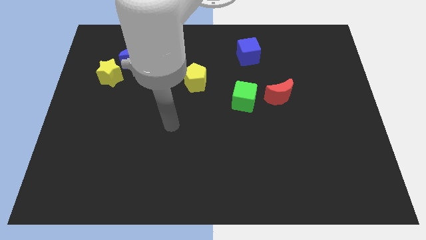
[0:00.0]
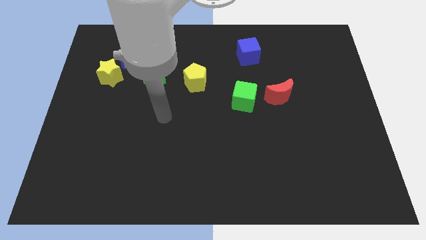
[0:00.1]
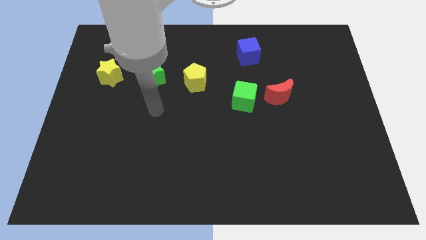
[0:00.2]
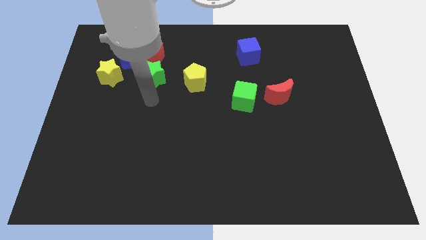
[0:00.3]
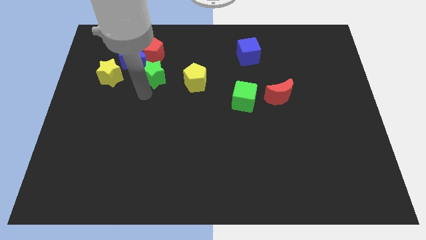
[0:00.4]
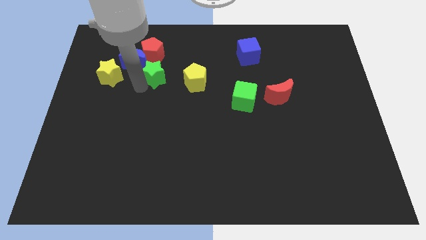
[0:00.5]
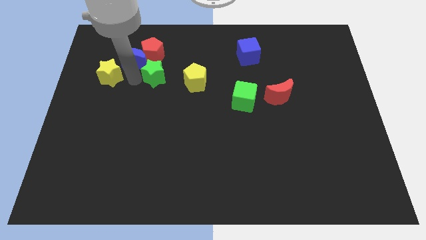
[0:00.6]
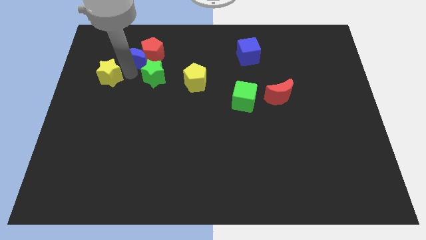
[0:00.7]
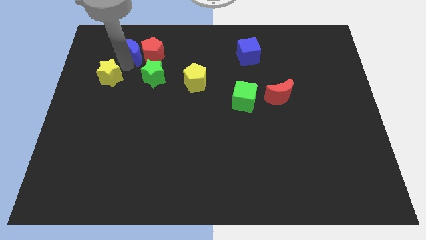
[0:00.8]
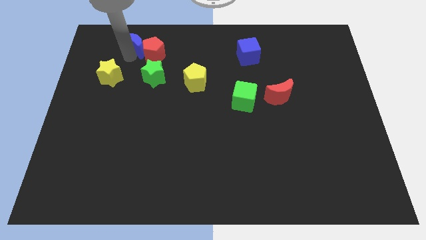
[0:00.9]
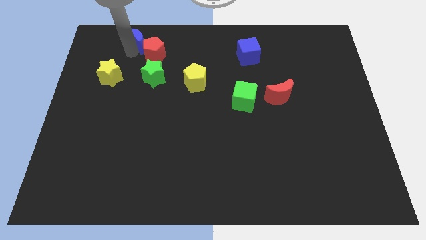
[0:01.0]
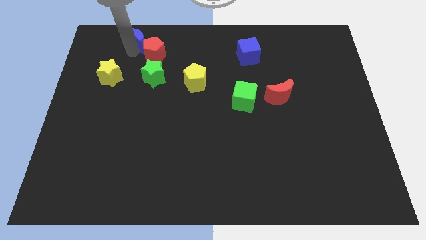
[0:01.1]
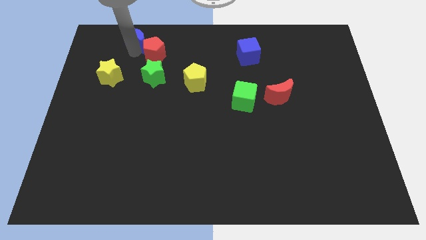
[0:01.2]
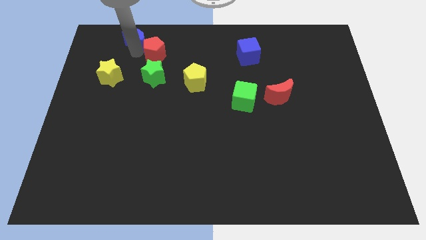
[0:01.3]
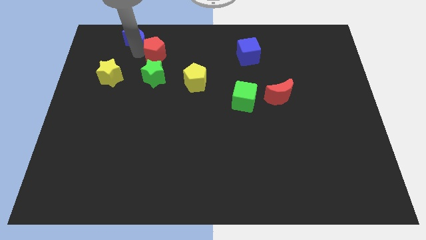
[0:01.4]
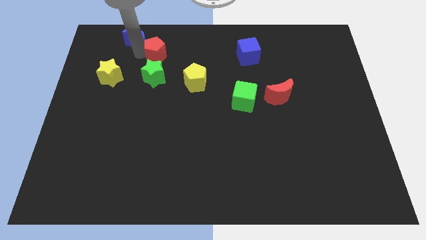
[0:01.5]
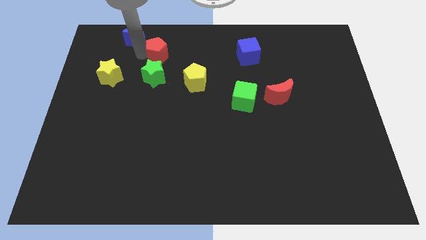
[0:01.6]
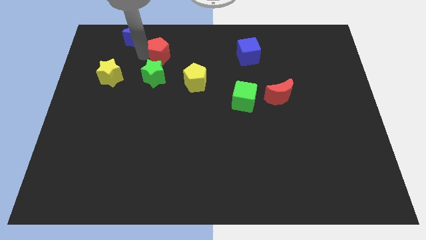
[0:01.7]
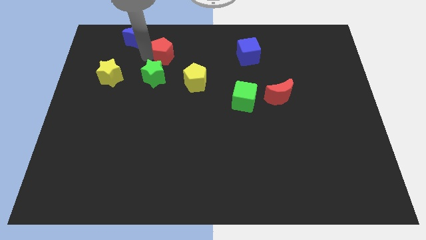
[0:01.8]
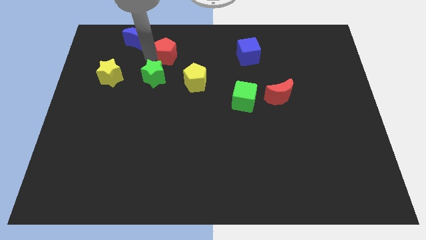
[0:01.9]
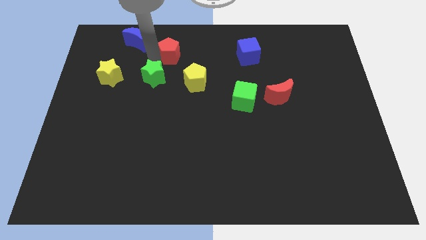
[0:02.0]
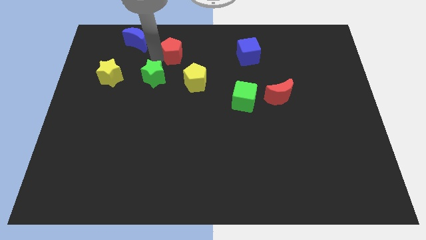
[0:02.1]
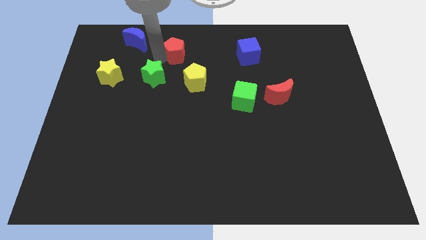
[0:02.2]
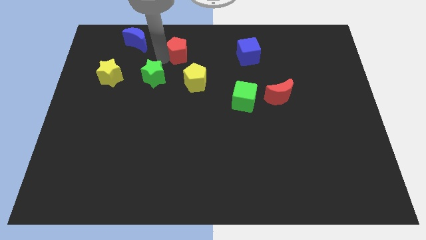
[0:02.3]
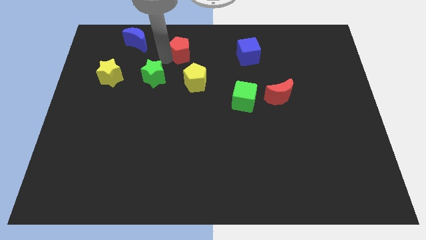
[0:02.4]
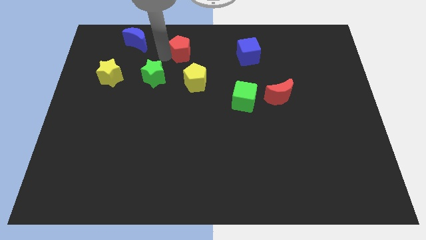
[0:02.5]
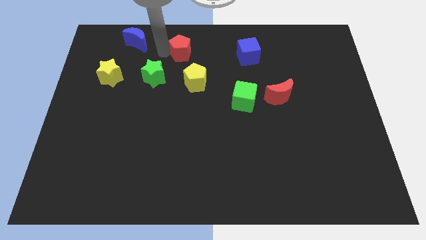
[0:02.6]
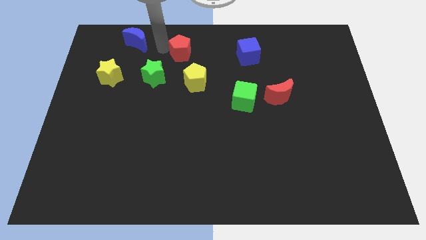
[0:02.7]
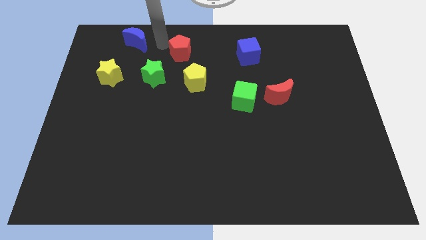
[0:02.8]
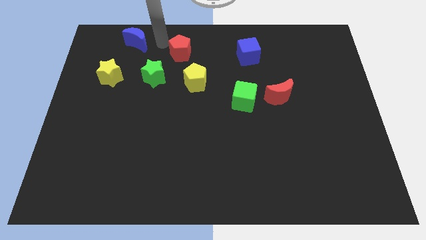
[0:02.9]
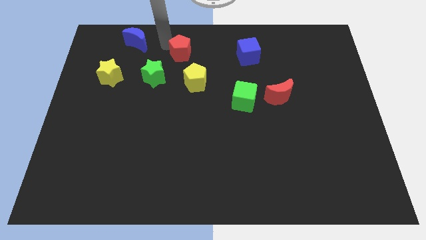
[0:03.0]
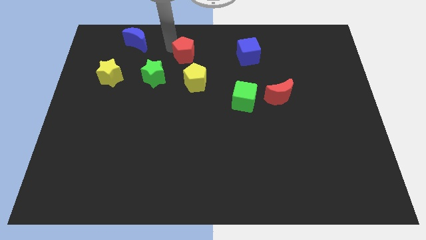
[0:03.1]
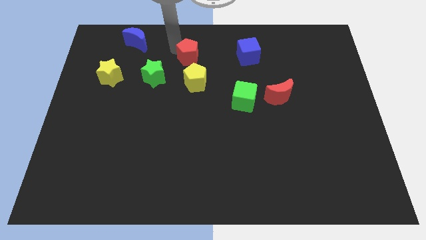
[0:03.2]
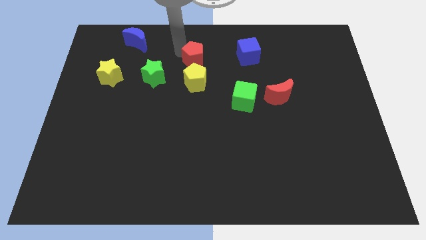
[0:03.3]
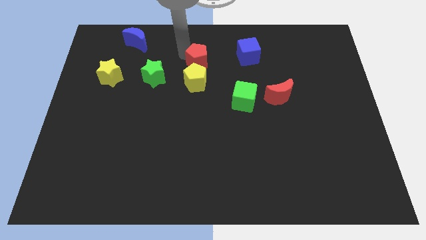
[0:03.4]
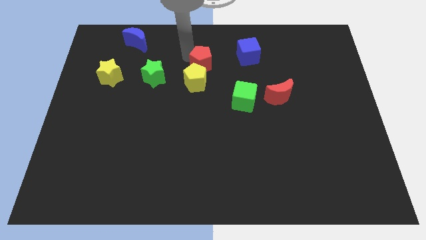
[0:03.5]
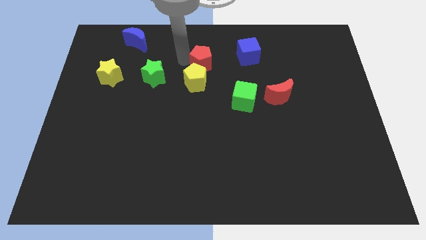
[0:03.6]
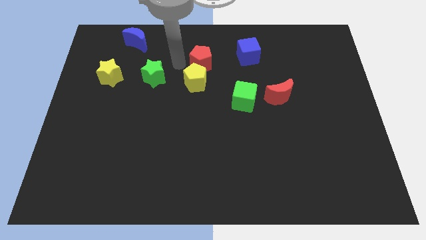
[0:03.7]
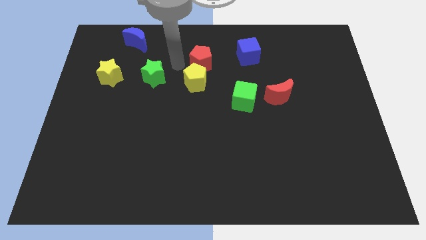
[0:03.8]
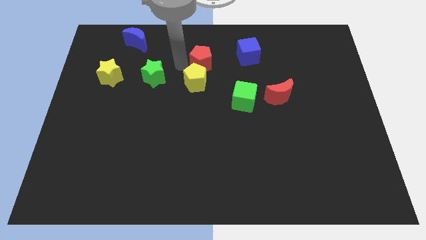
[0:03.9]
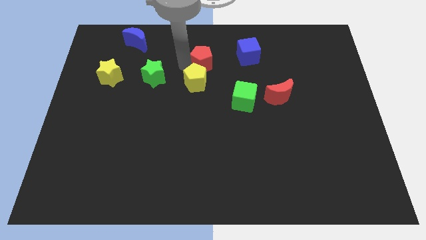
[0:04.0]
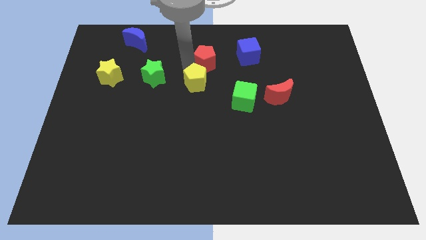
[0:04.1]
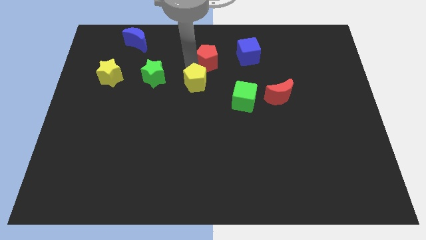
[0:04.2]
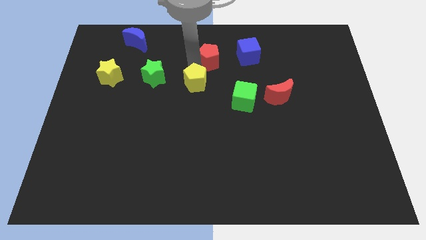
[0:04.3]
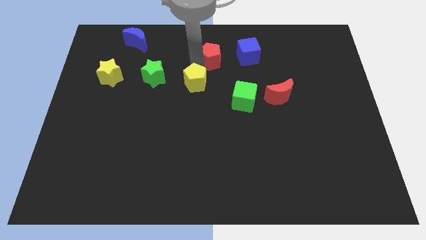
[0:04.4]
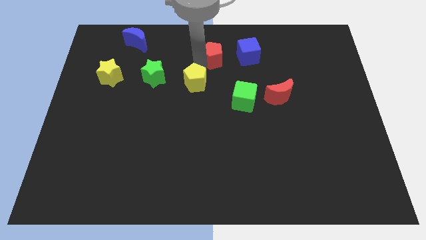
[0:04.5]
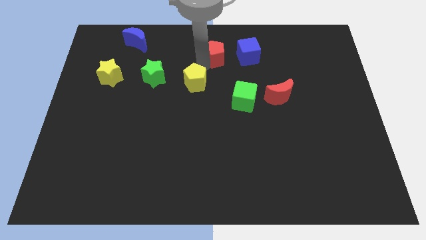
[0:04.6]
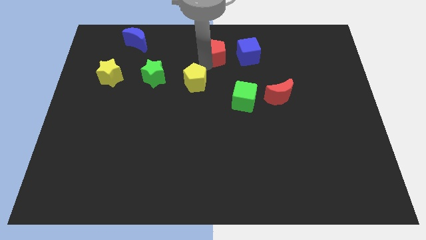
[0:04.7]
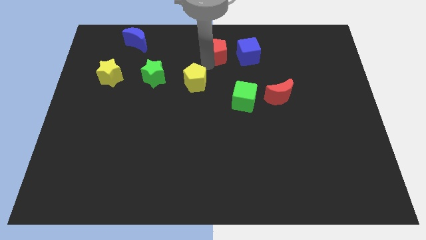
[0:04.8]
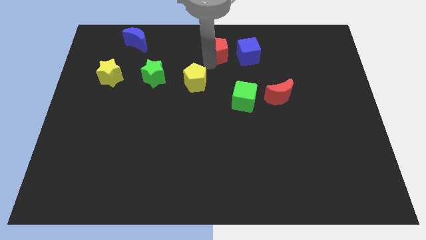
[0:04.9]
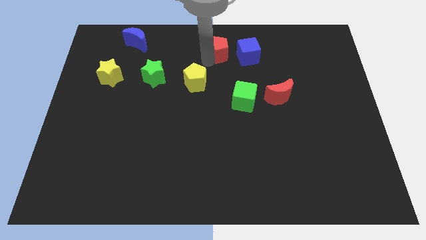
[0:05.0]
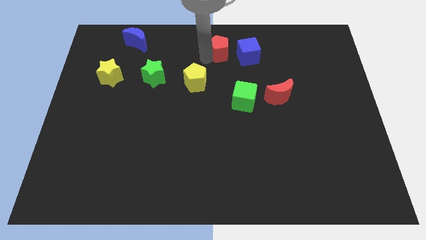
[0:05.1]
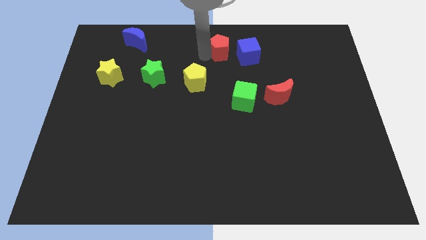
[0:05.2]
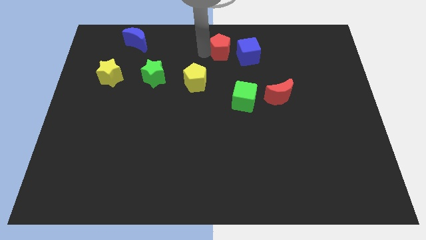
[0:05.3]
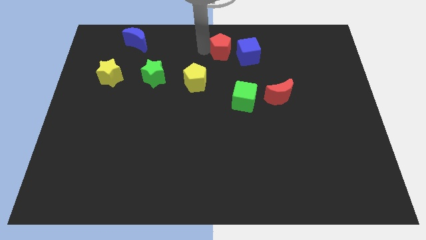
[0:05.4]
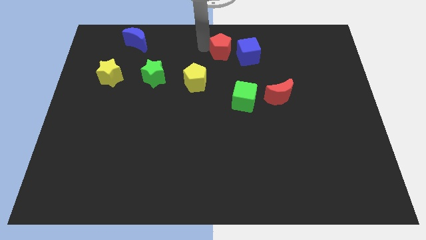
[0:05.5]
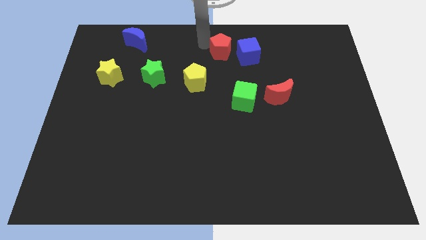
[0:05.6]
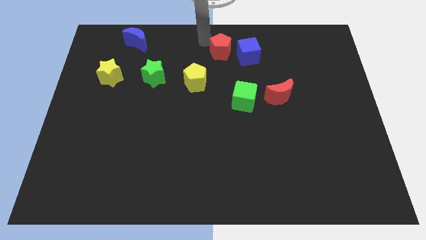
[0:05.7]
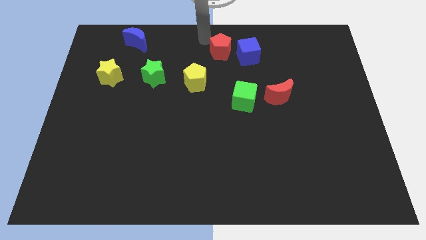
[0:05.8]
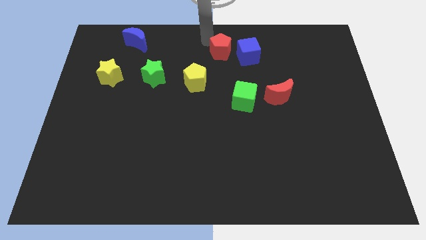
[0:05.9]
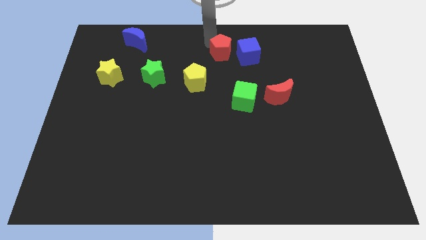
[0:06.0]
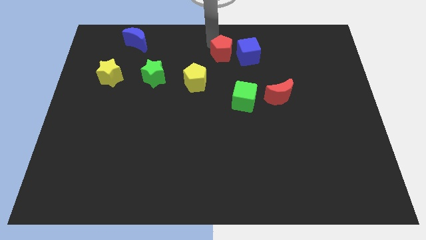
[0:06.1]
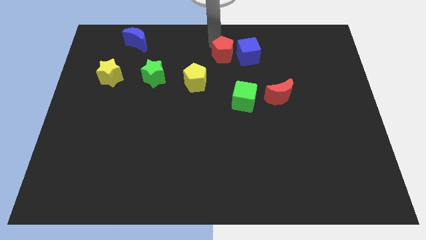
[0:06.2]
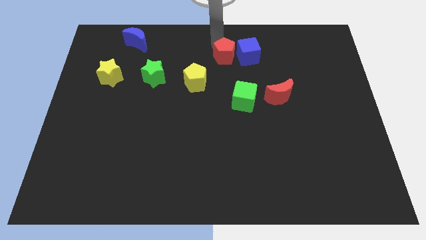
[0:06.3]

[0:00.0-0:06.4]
put the red pentagon next to the blue cube

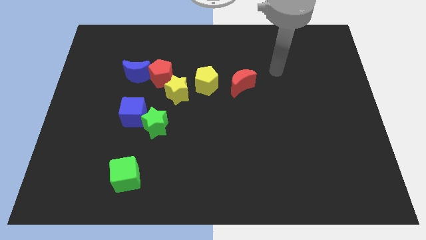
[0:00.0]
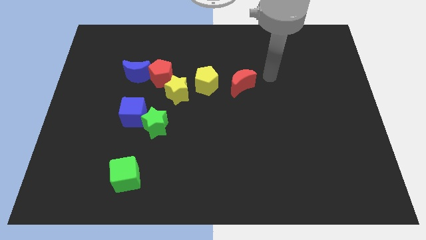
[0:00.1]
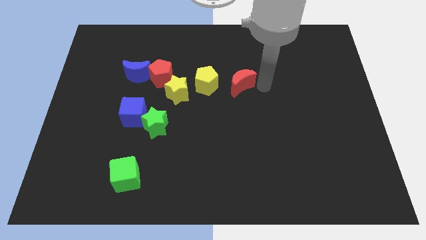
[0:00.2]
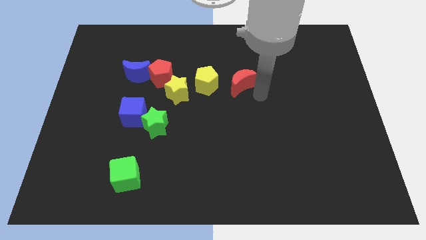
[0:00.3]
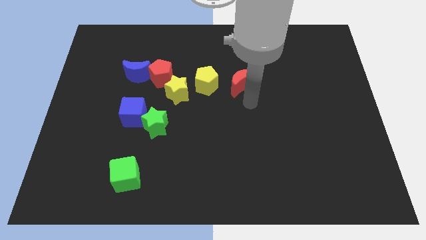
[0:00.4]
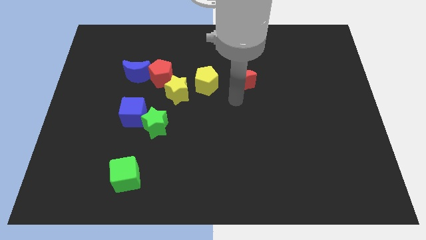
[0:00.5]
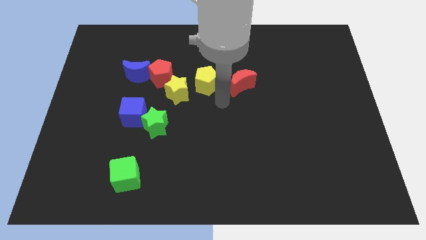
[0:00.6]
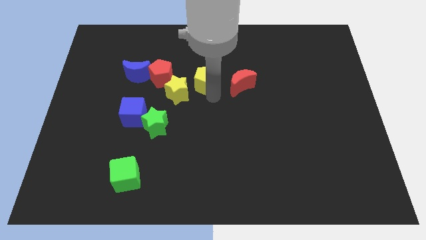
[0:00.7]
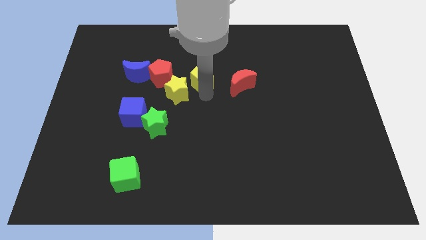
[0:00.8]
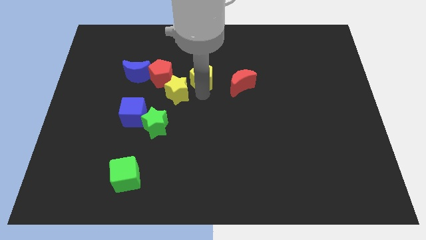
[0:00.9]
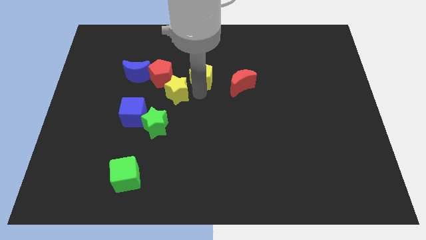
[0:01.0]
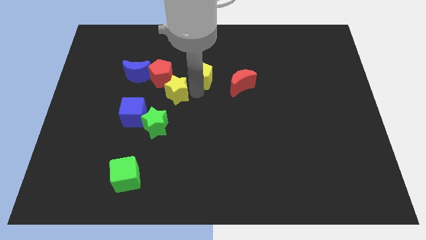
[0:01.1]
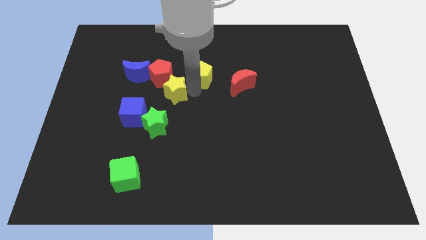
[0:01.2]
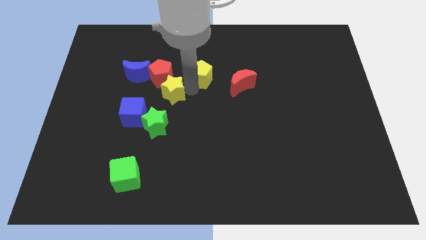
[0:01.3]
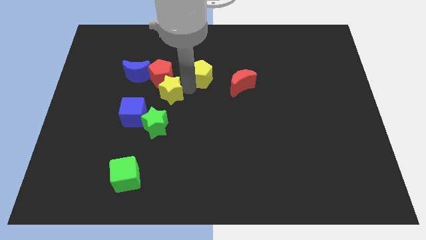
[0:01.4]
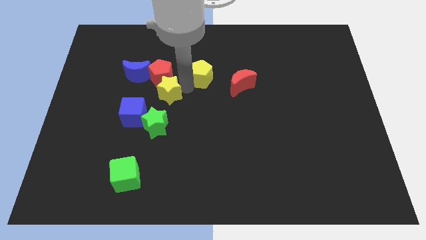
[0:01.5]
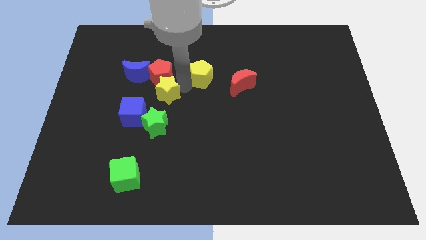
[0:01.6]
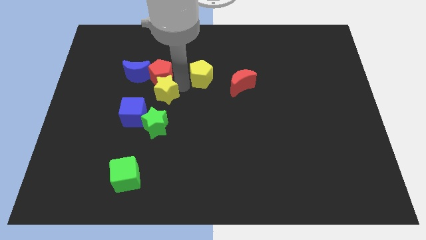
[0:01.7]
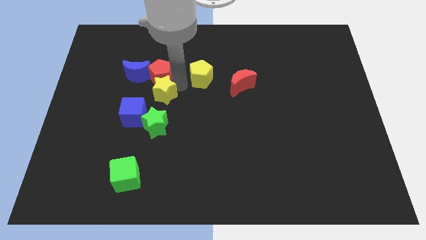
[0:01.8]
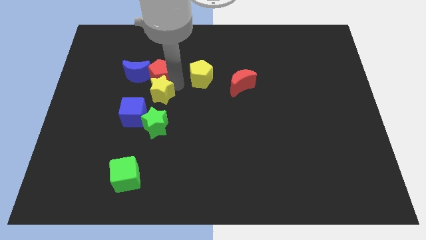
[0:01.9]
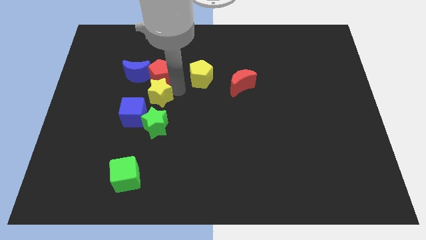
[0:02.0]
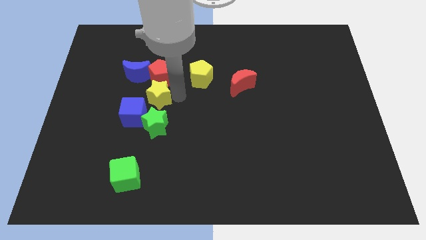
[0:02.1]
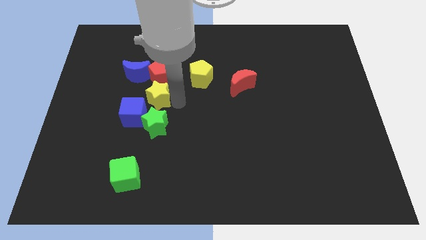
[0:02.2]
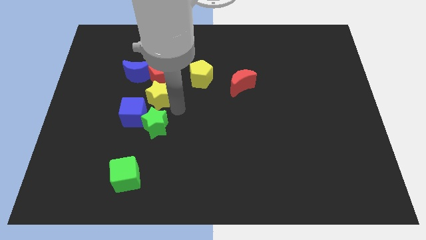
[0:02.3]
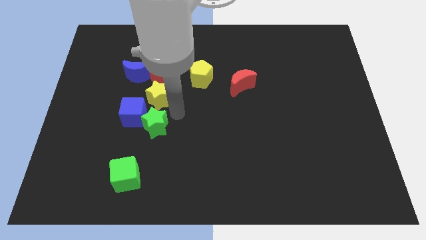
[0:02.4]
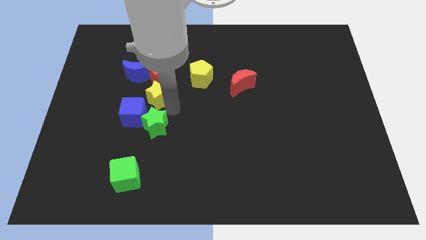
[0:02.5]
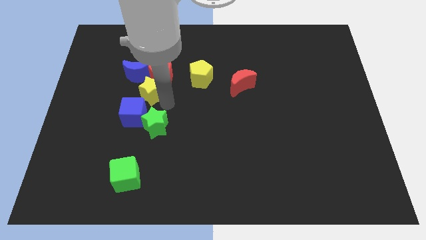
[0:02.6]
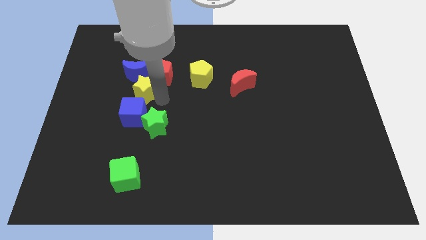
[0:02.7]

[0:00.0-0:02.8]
move the yellow star towards the blue moon
